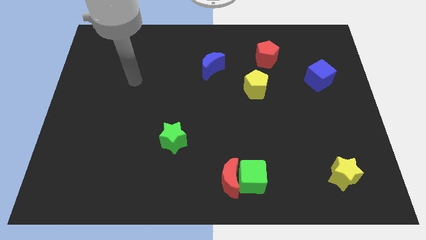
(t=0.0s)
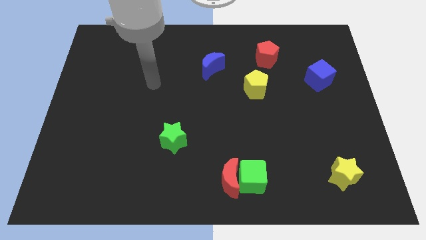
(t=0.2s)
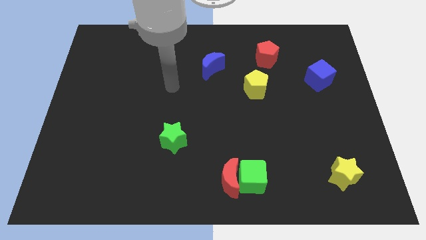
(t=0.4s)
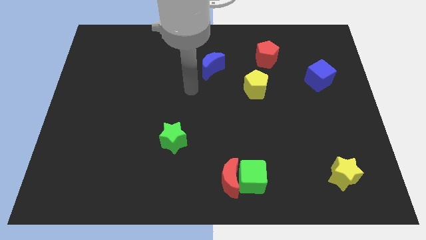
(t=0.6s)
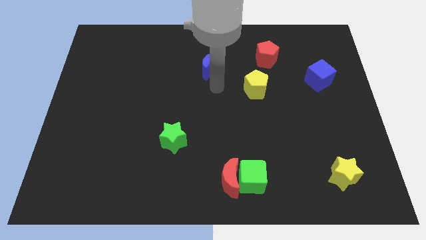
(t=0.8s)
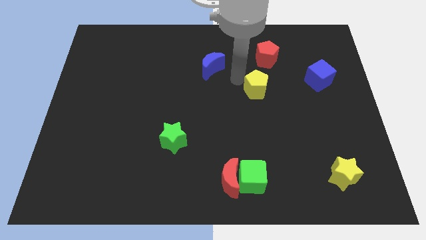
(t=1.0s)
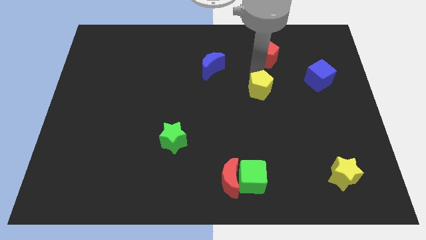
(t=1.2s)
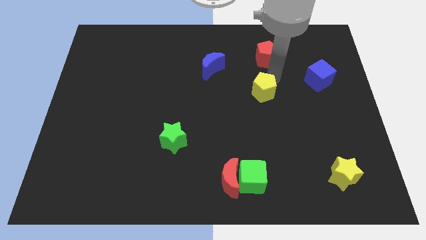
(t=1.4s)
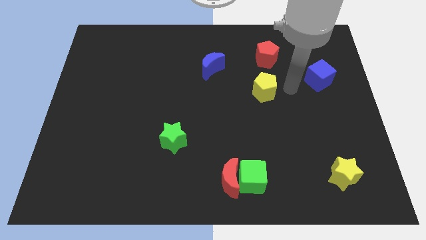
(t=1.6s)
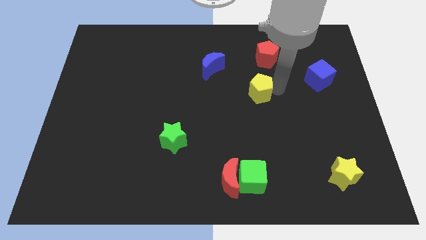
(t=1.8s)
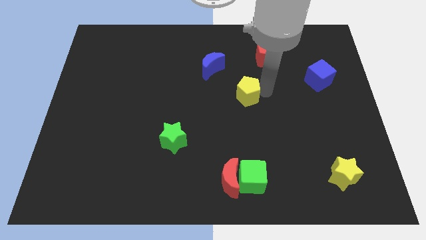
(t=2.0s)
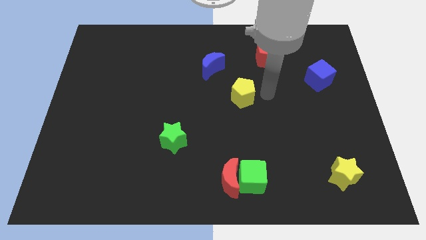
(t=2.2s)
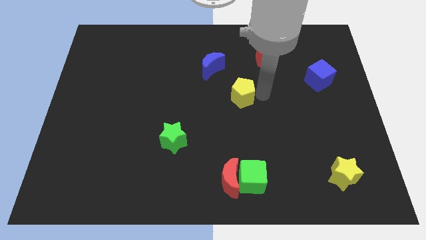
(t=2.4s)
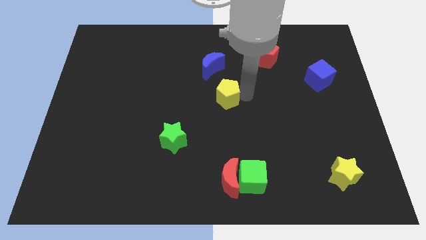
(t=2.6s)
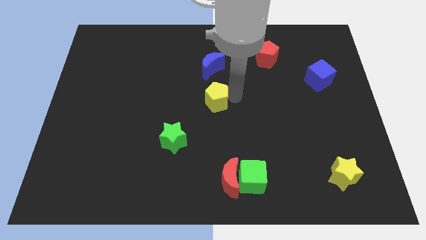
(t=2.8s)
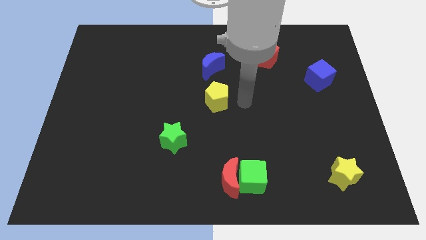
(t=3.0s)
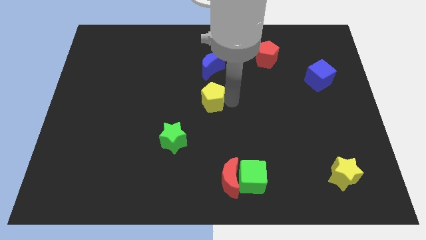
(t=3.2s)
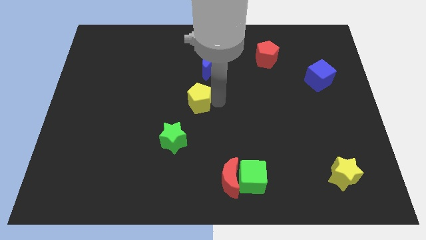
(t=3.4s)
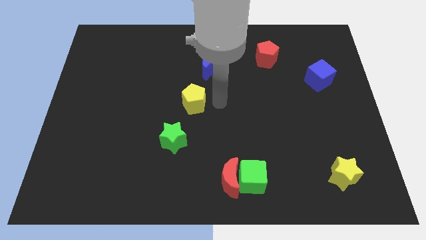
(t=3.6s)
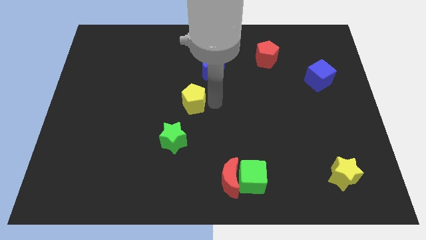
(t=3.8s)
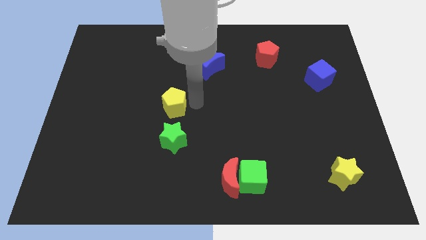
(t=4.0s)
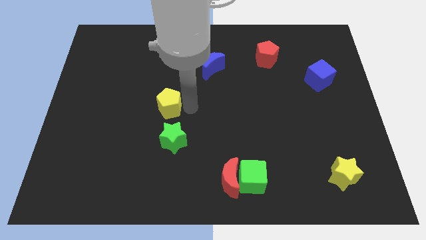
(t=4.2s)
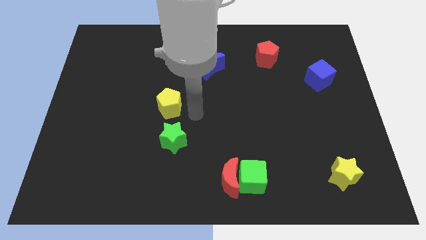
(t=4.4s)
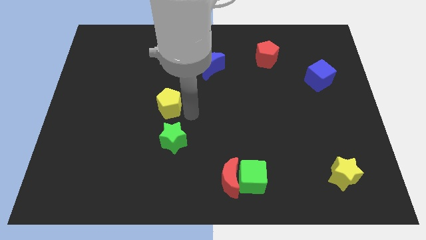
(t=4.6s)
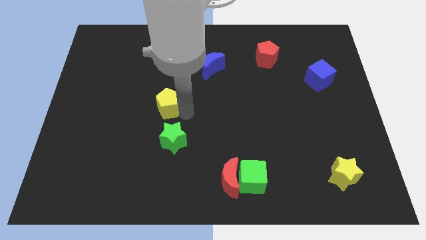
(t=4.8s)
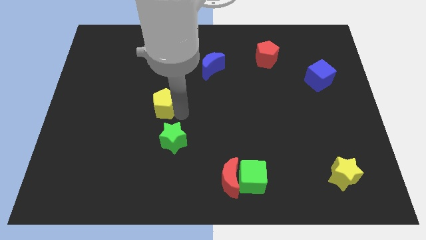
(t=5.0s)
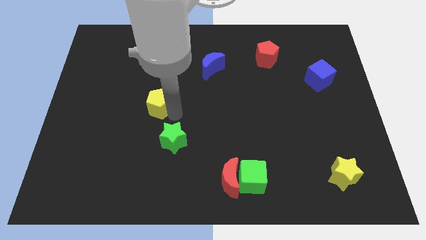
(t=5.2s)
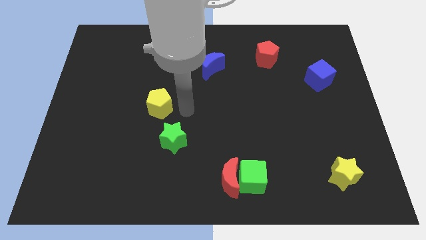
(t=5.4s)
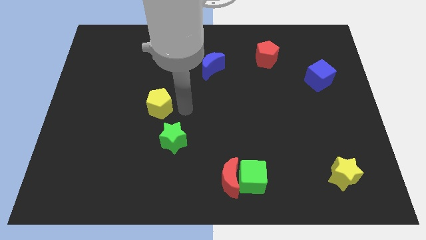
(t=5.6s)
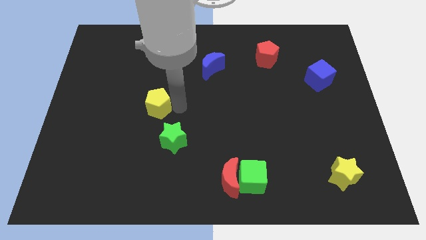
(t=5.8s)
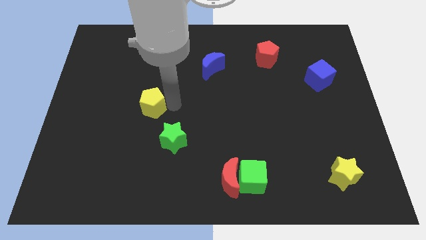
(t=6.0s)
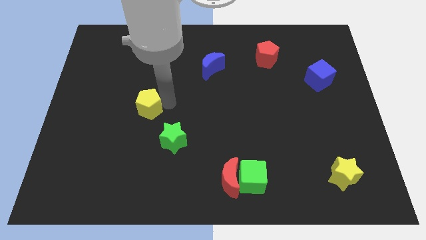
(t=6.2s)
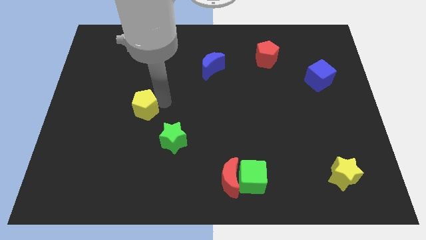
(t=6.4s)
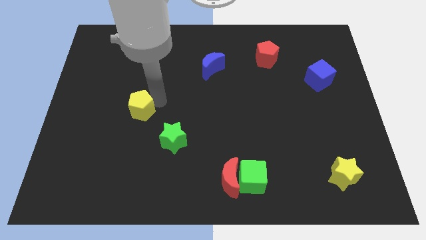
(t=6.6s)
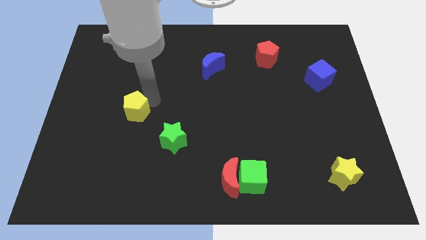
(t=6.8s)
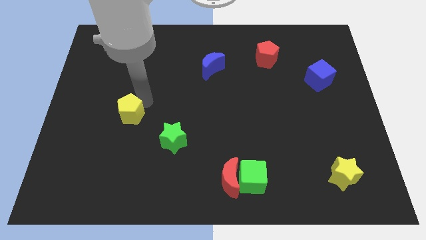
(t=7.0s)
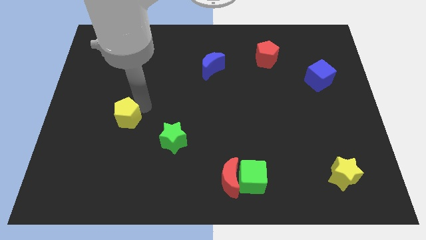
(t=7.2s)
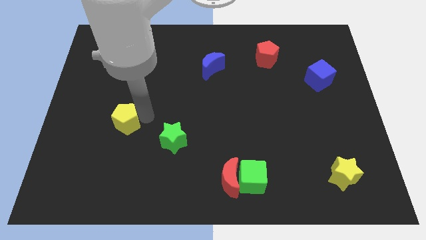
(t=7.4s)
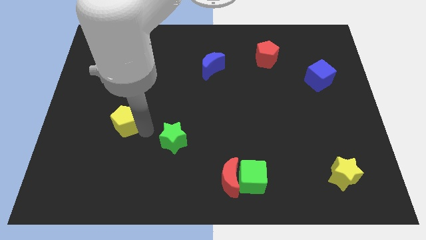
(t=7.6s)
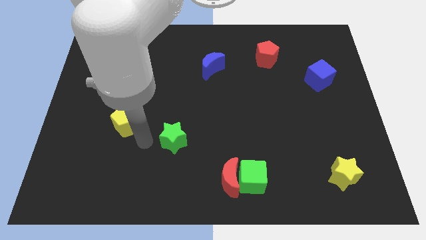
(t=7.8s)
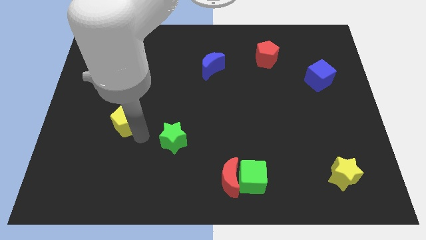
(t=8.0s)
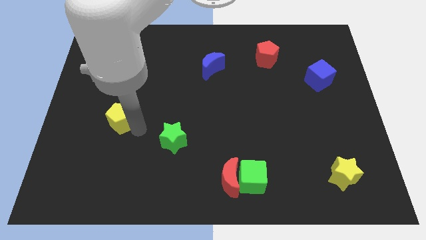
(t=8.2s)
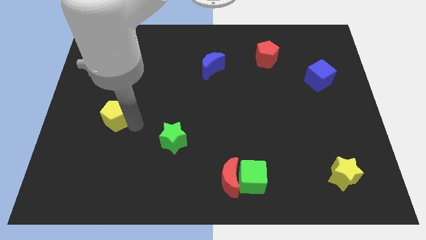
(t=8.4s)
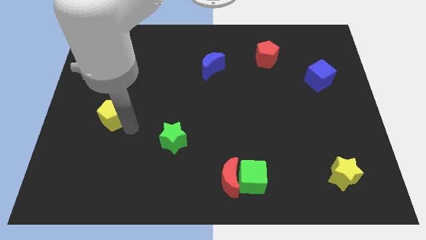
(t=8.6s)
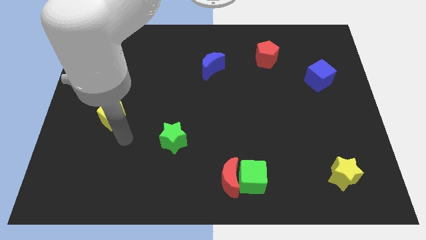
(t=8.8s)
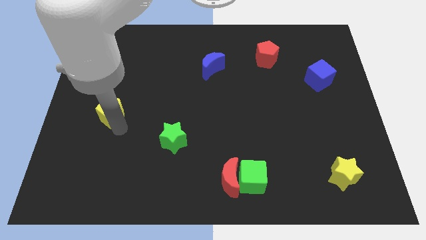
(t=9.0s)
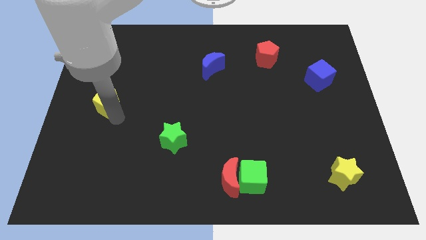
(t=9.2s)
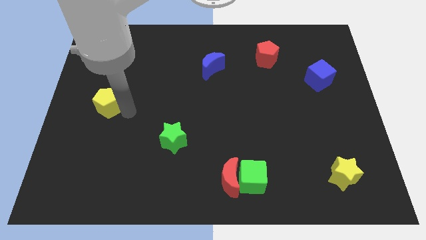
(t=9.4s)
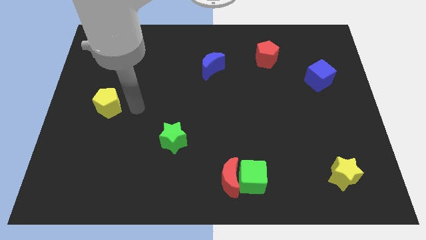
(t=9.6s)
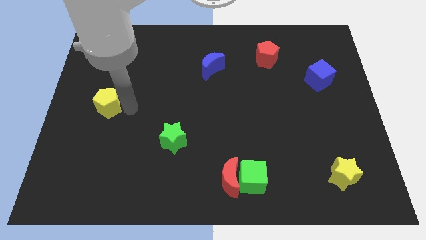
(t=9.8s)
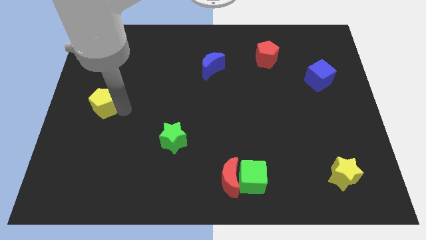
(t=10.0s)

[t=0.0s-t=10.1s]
move the yellow pentagon to the left side

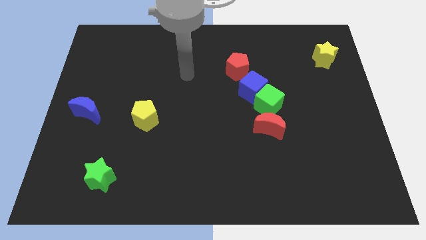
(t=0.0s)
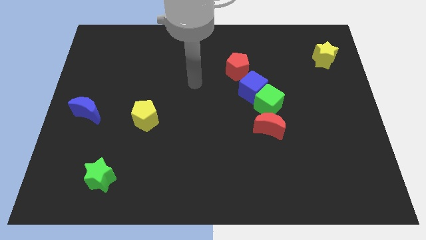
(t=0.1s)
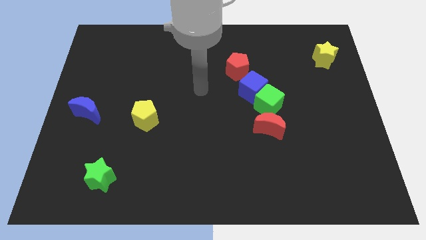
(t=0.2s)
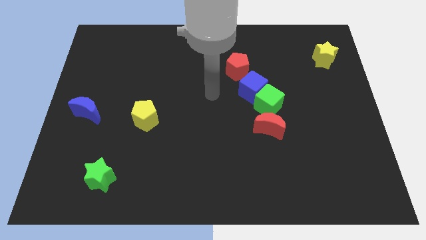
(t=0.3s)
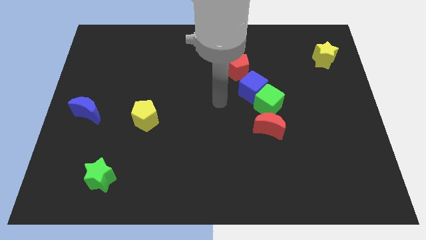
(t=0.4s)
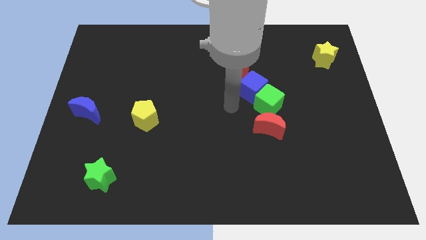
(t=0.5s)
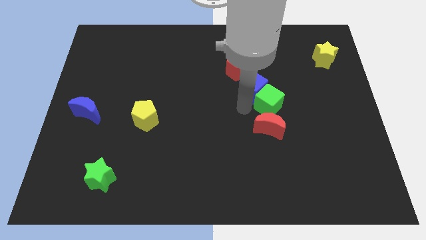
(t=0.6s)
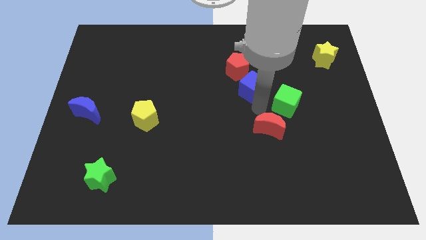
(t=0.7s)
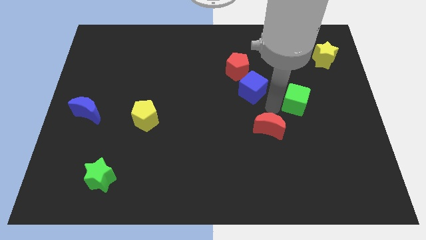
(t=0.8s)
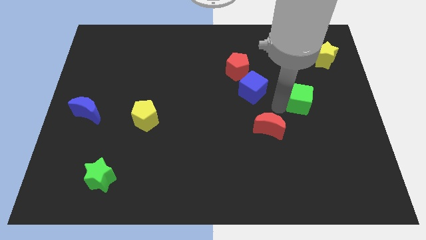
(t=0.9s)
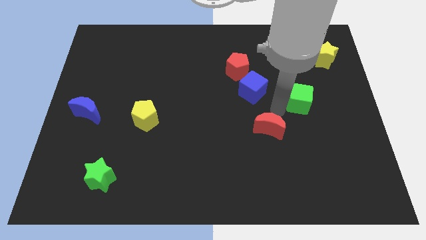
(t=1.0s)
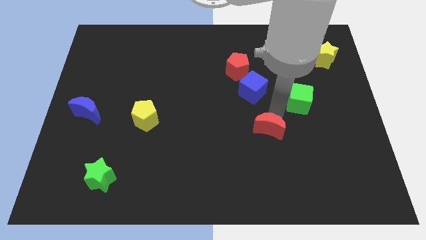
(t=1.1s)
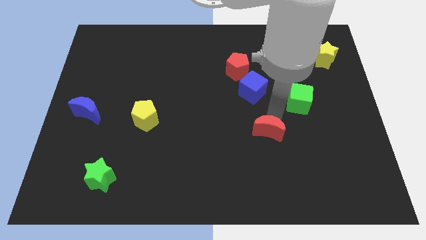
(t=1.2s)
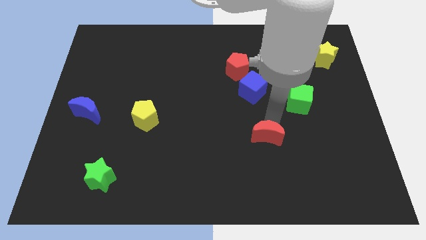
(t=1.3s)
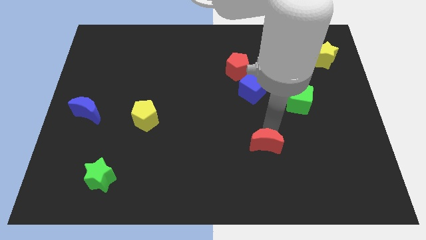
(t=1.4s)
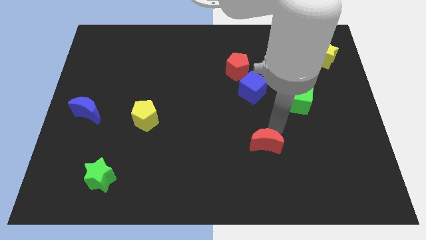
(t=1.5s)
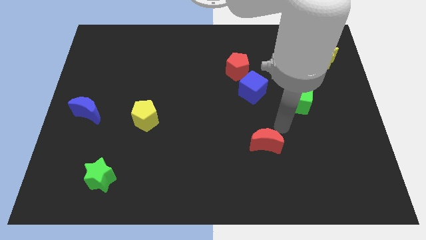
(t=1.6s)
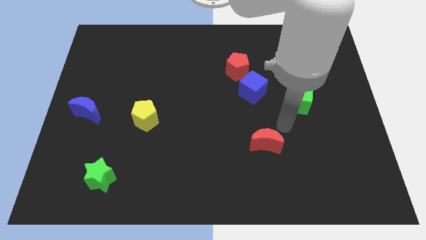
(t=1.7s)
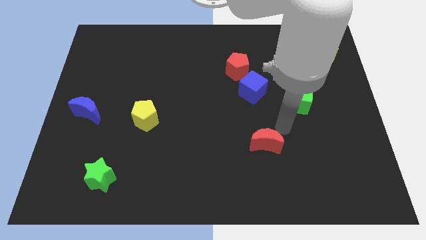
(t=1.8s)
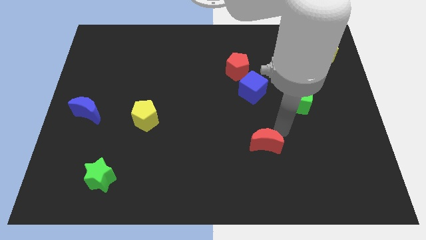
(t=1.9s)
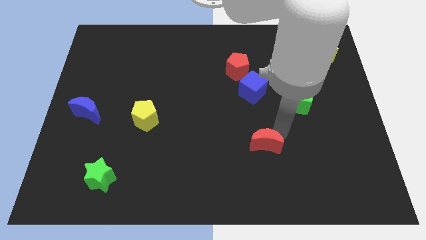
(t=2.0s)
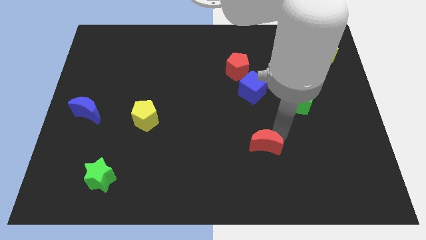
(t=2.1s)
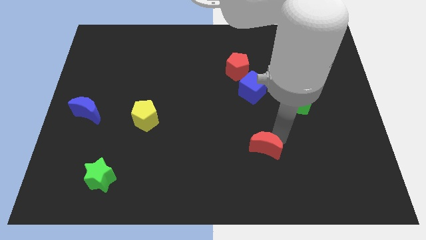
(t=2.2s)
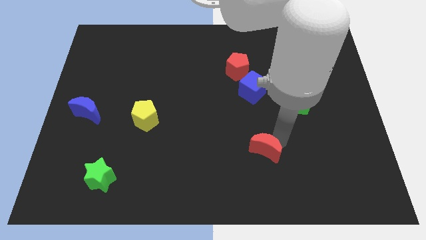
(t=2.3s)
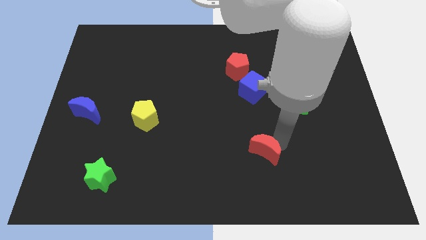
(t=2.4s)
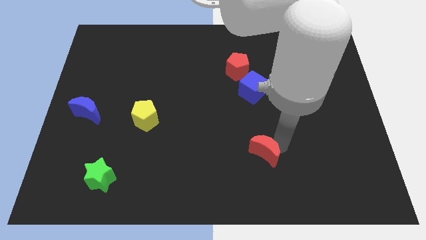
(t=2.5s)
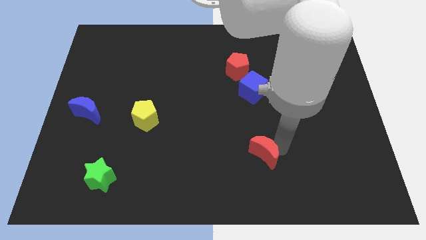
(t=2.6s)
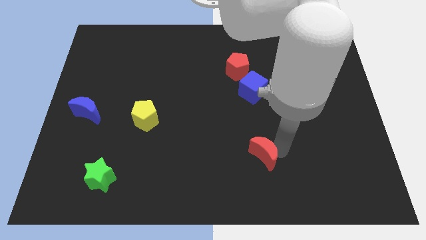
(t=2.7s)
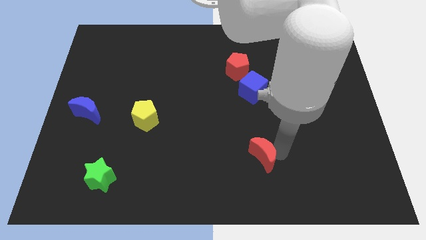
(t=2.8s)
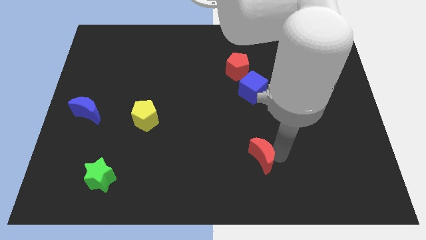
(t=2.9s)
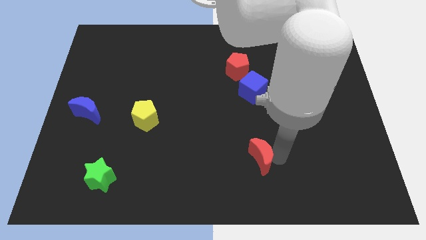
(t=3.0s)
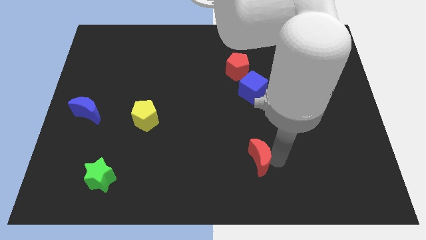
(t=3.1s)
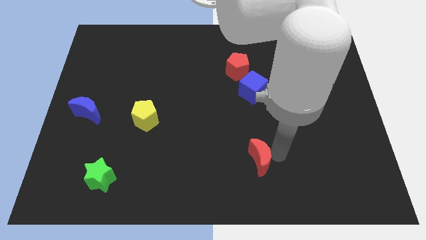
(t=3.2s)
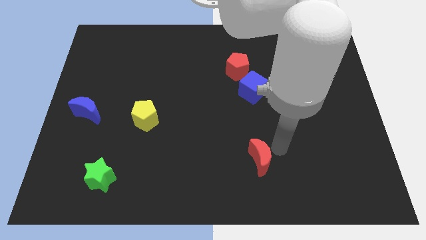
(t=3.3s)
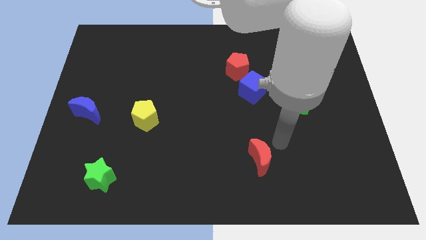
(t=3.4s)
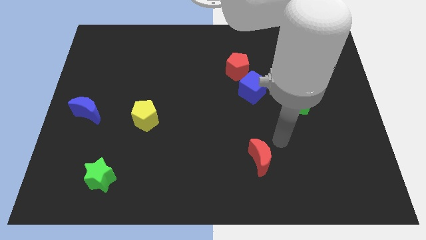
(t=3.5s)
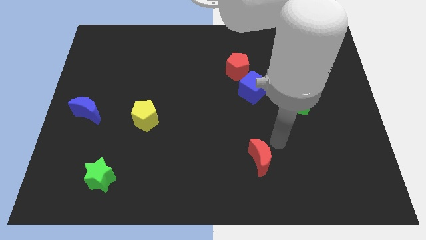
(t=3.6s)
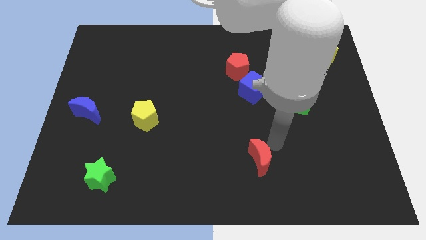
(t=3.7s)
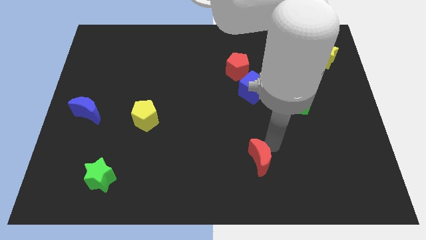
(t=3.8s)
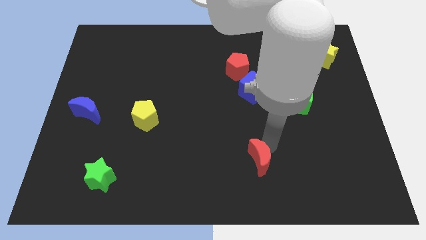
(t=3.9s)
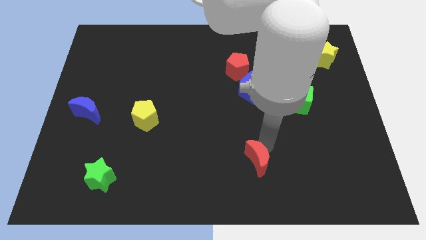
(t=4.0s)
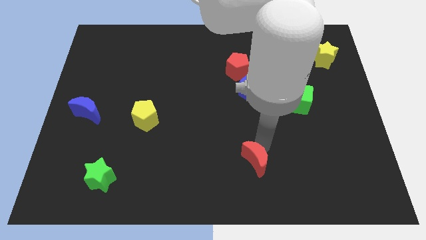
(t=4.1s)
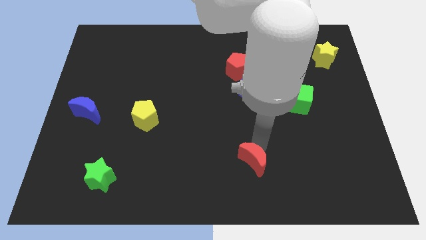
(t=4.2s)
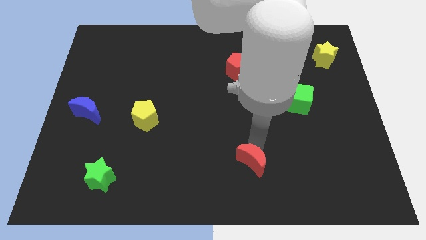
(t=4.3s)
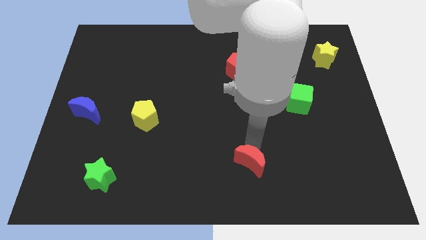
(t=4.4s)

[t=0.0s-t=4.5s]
push the red moon to the bottom side
